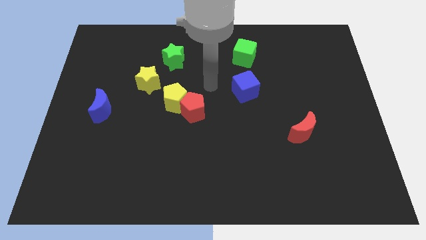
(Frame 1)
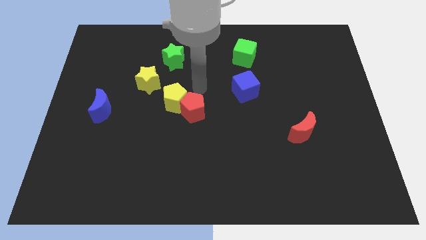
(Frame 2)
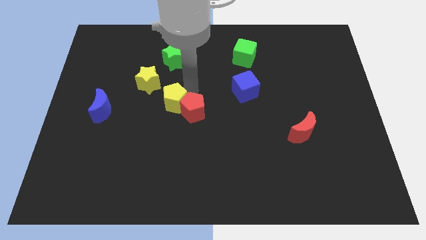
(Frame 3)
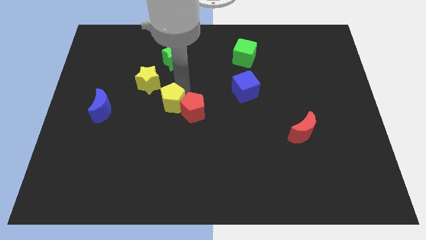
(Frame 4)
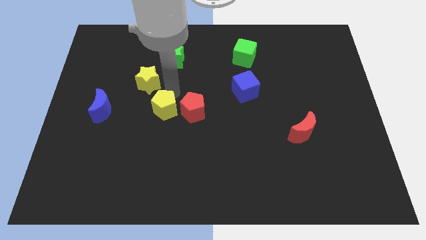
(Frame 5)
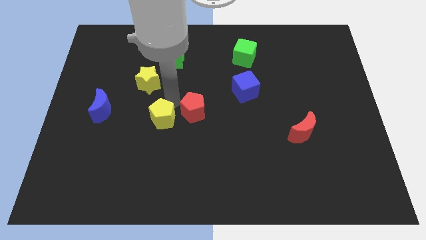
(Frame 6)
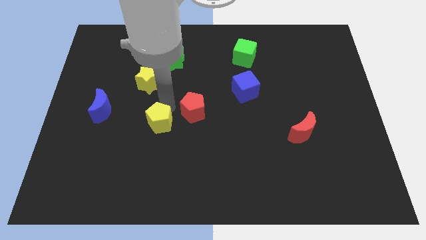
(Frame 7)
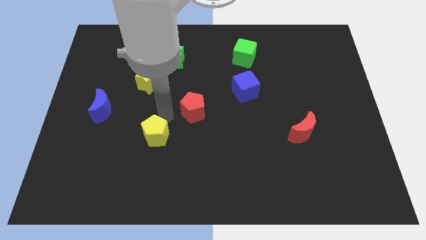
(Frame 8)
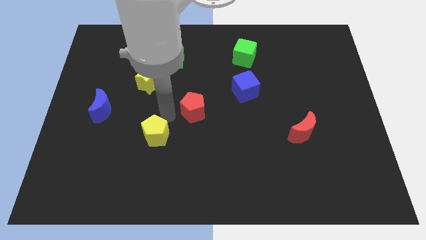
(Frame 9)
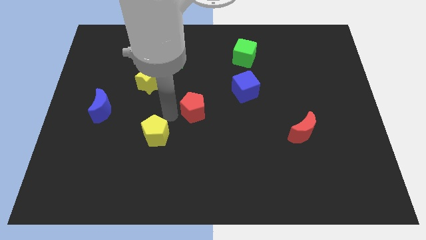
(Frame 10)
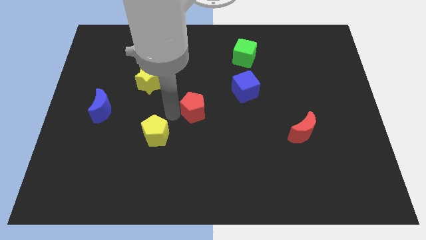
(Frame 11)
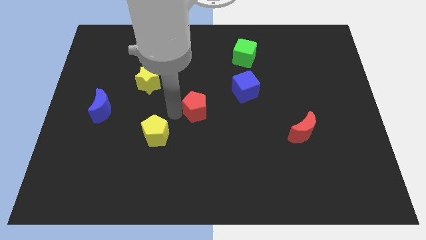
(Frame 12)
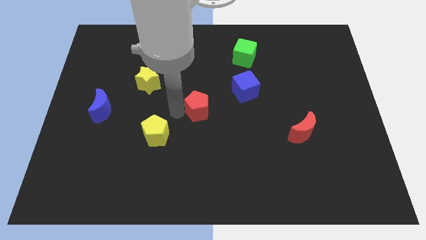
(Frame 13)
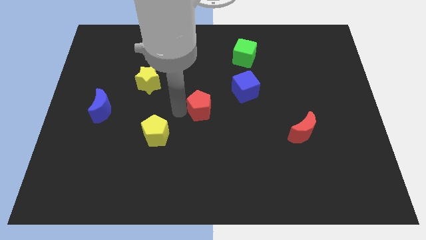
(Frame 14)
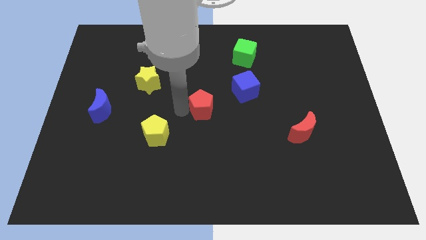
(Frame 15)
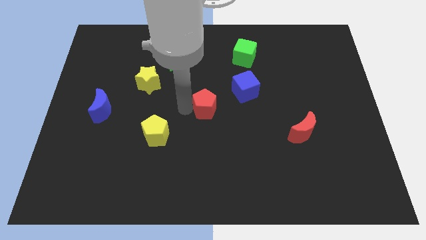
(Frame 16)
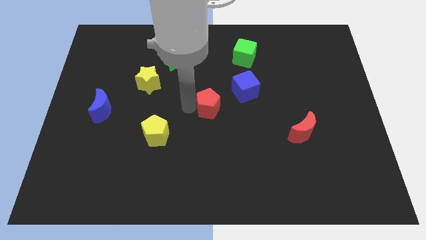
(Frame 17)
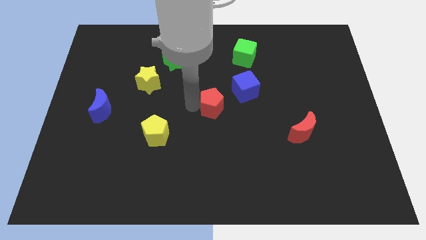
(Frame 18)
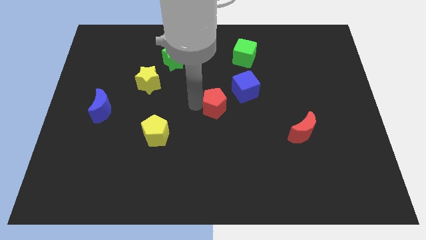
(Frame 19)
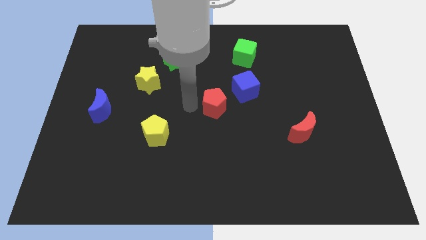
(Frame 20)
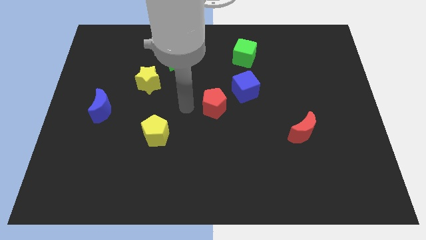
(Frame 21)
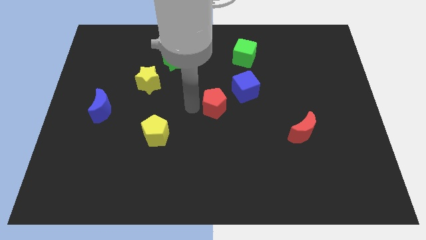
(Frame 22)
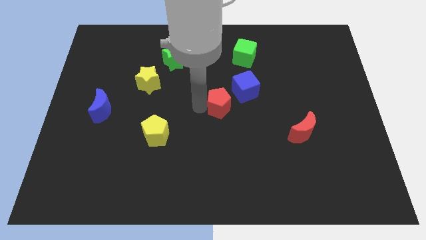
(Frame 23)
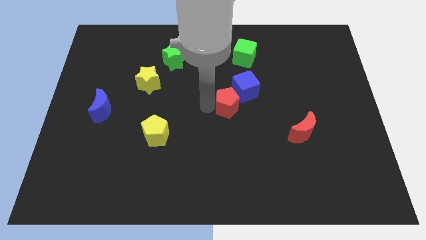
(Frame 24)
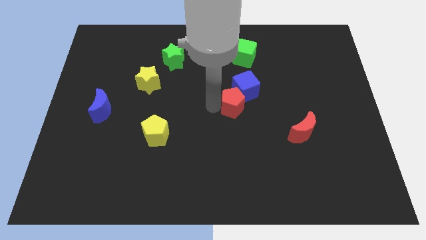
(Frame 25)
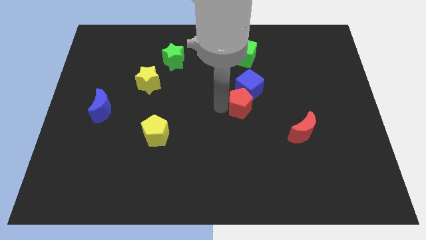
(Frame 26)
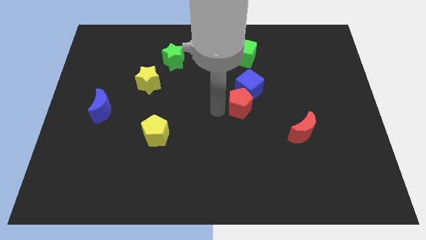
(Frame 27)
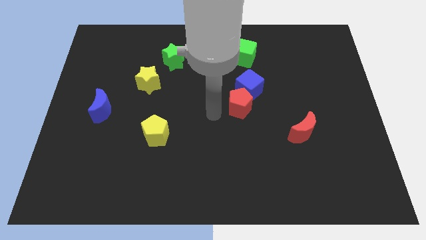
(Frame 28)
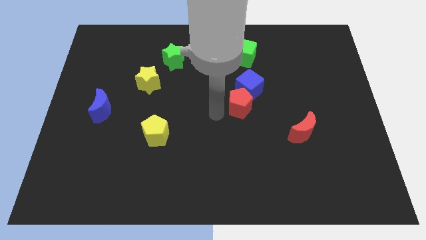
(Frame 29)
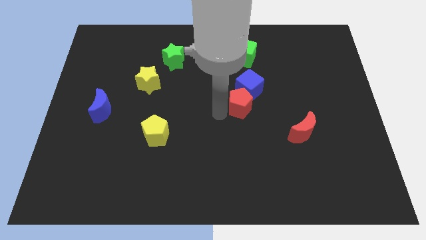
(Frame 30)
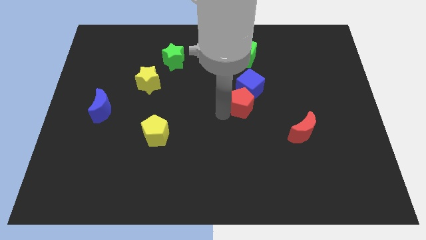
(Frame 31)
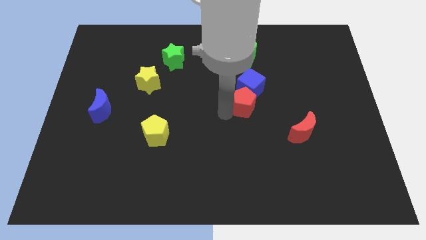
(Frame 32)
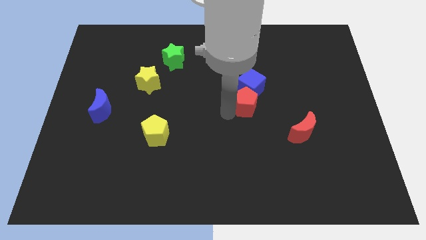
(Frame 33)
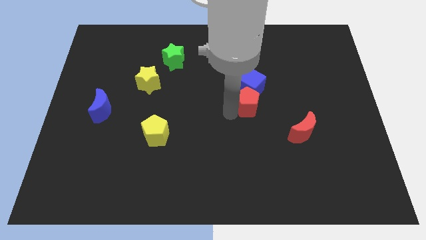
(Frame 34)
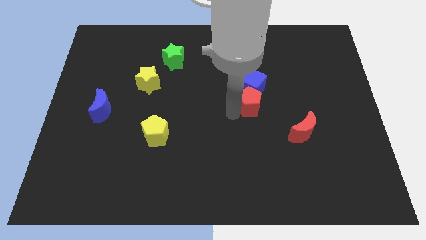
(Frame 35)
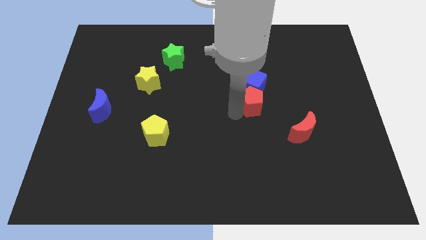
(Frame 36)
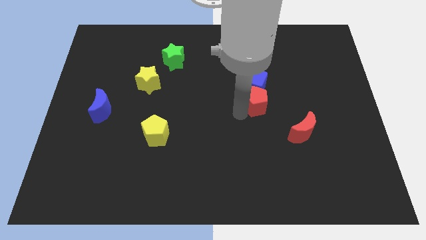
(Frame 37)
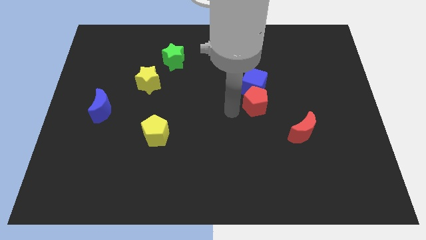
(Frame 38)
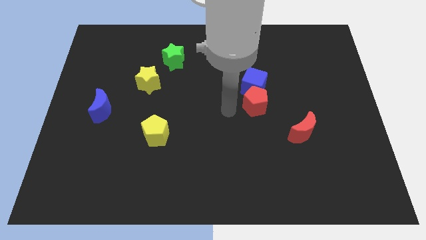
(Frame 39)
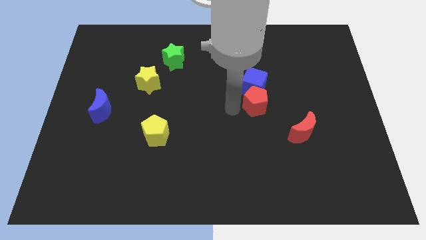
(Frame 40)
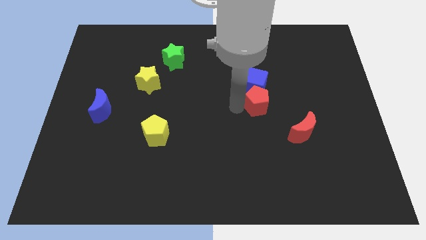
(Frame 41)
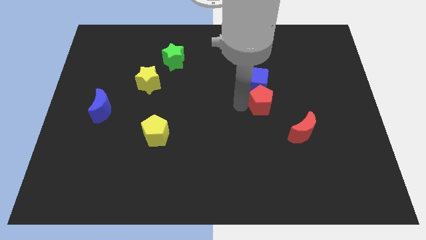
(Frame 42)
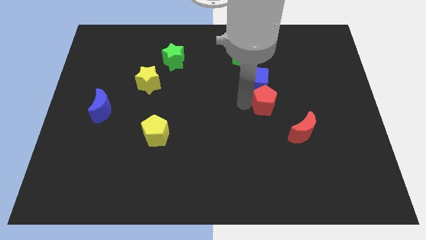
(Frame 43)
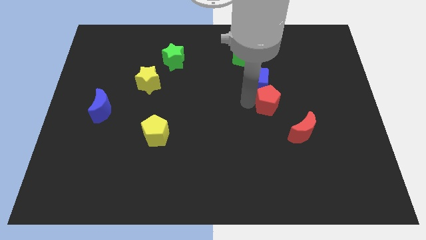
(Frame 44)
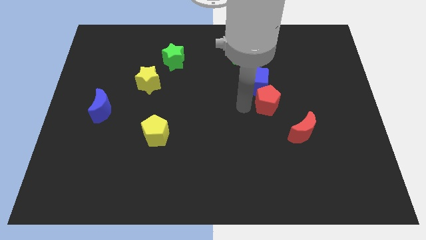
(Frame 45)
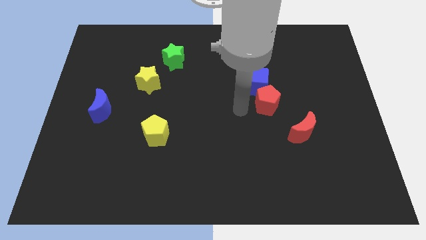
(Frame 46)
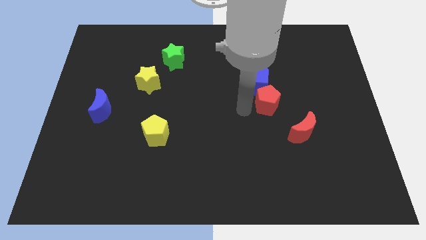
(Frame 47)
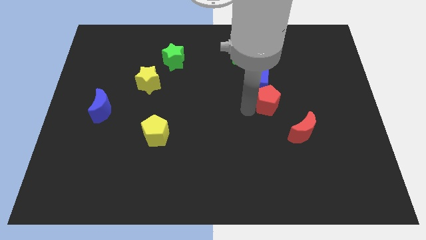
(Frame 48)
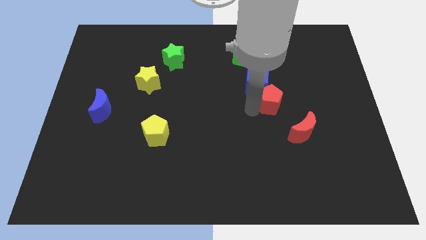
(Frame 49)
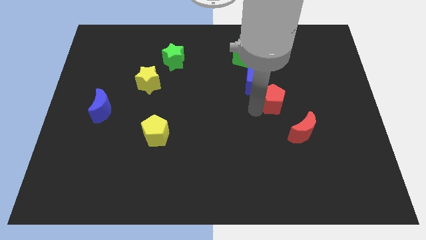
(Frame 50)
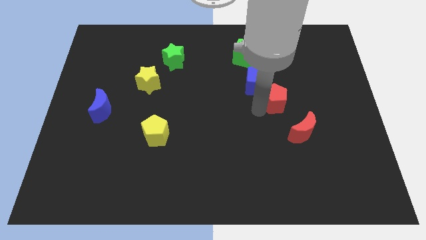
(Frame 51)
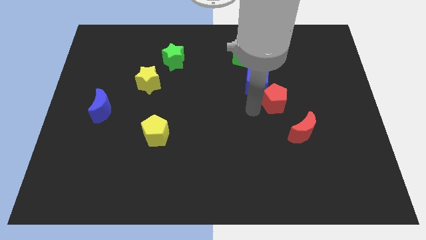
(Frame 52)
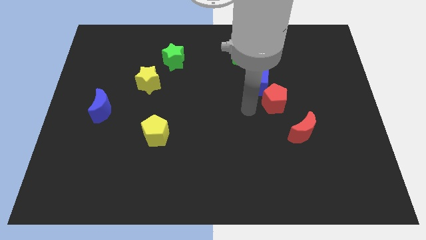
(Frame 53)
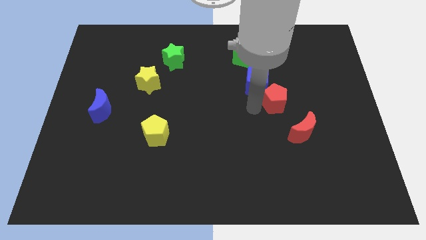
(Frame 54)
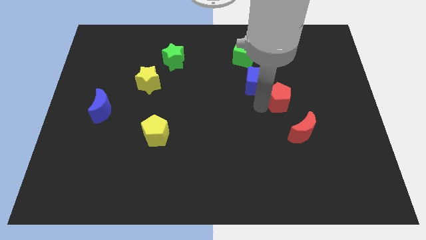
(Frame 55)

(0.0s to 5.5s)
move the red pentagon to the top of the red moon

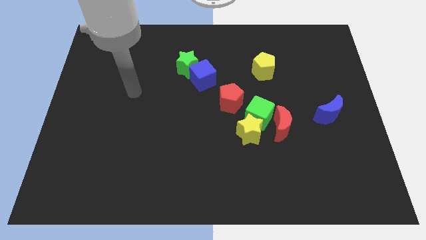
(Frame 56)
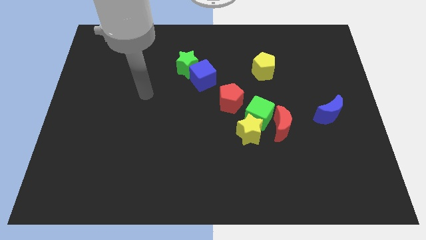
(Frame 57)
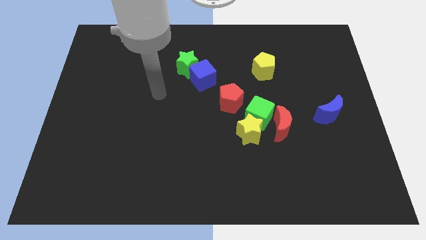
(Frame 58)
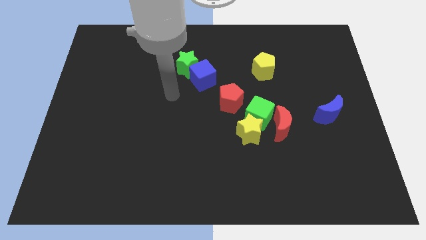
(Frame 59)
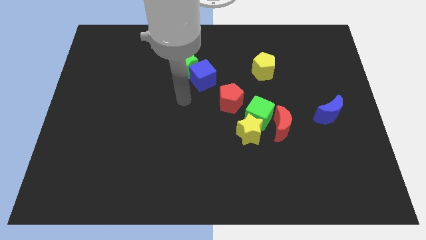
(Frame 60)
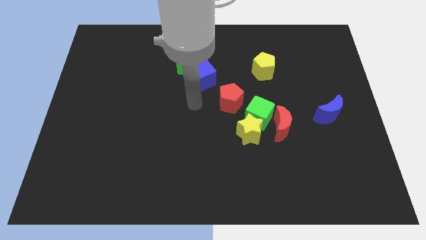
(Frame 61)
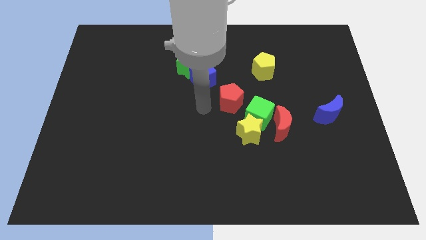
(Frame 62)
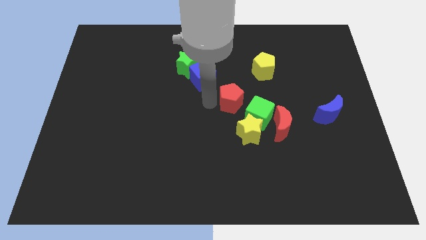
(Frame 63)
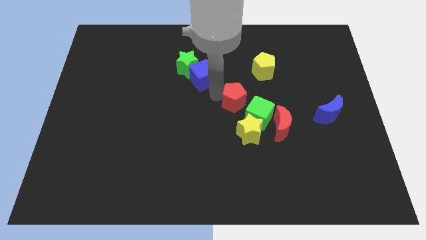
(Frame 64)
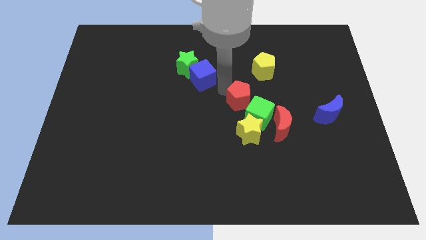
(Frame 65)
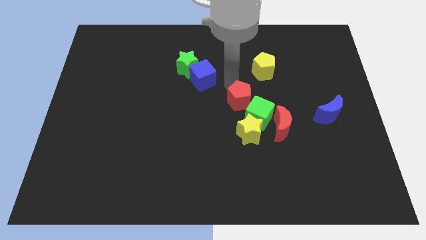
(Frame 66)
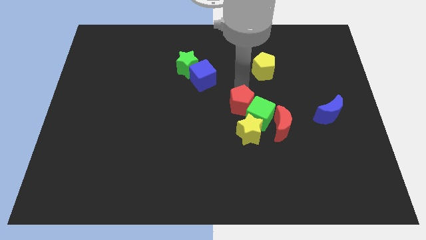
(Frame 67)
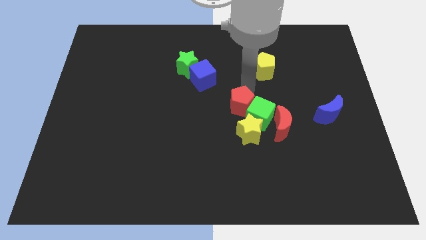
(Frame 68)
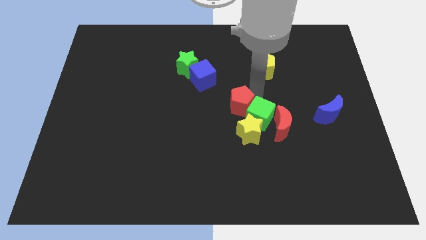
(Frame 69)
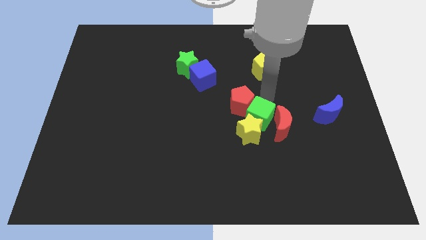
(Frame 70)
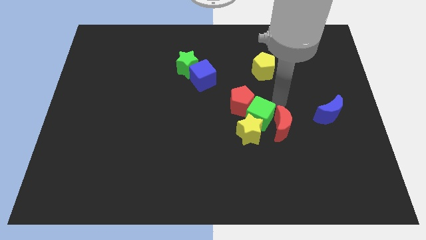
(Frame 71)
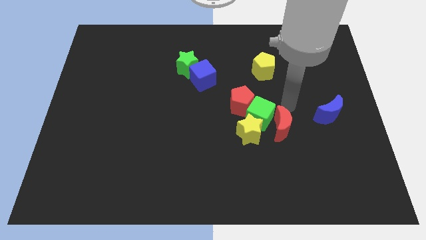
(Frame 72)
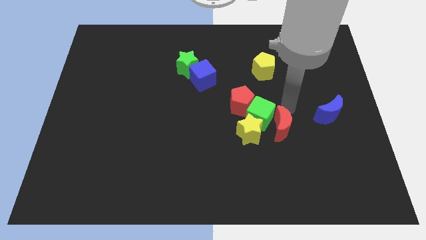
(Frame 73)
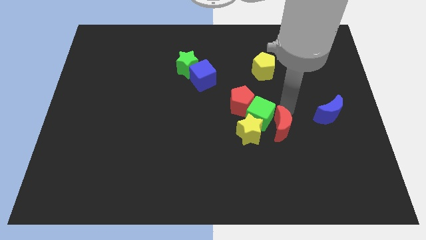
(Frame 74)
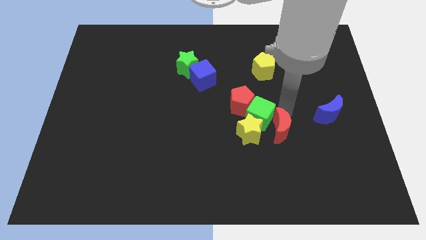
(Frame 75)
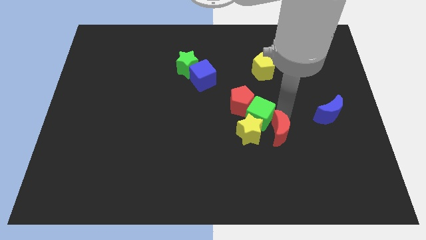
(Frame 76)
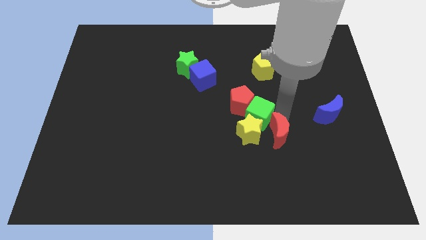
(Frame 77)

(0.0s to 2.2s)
slide the red moon diagonally down and to the right of the yellow star
